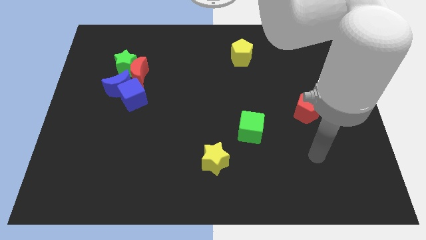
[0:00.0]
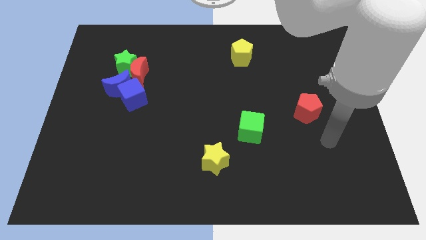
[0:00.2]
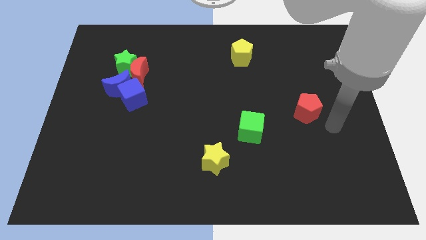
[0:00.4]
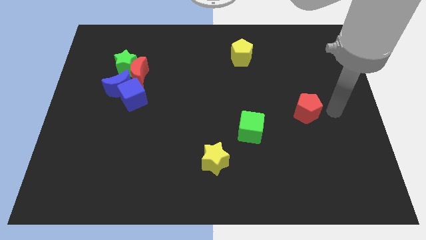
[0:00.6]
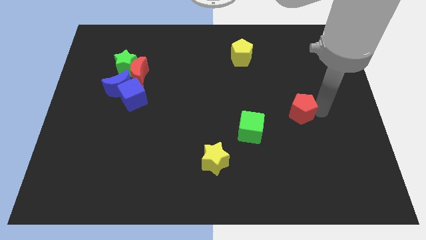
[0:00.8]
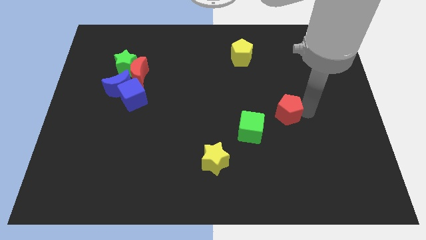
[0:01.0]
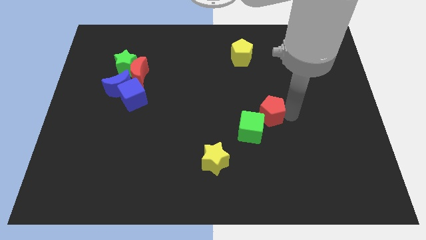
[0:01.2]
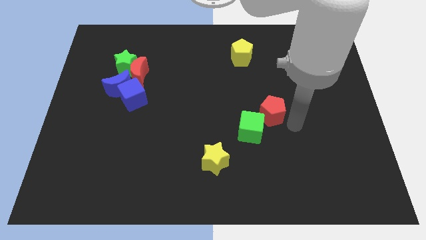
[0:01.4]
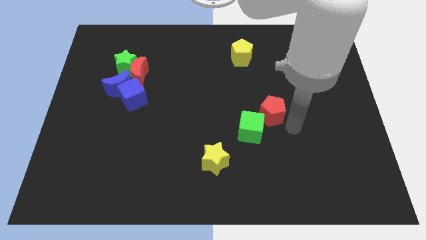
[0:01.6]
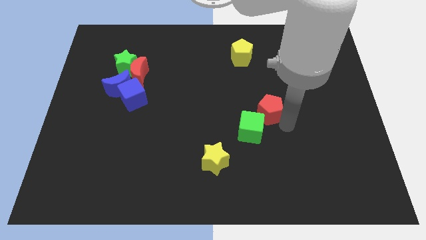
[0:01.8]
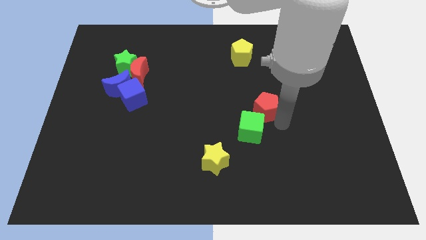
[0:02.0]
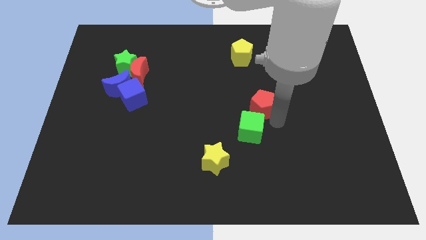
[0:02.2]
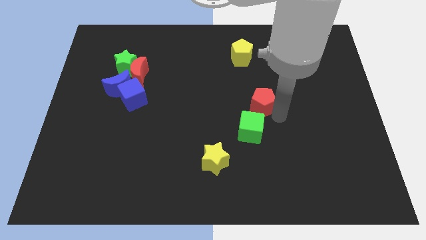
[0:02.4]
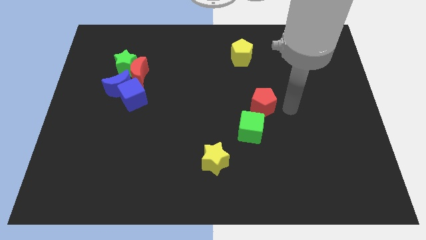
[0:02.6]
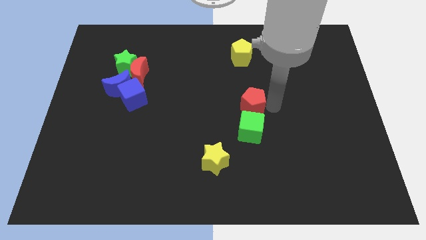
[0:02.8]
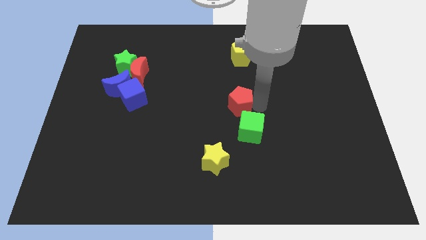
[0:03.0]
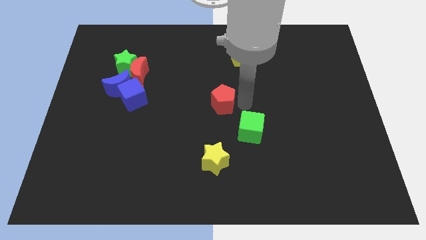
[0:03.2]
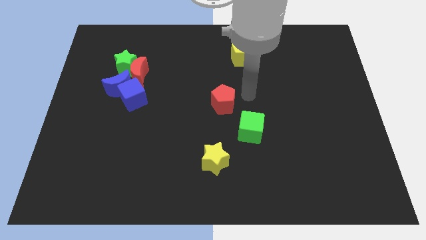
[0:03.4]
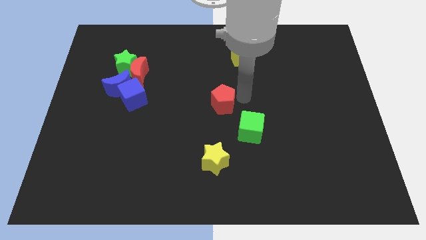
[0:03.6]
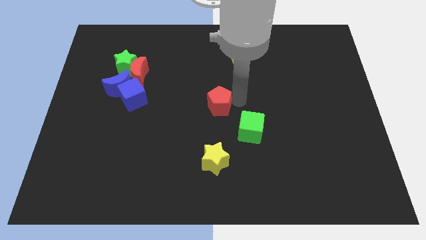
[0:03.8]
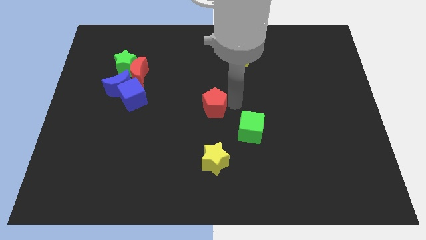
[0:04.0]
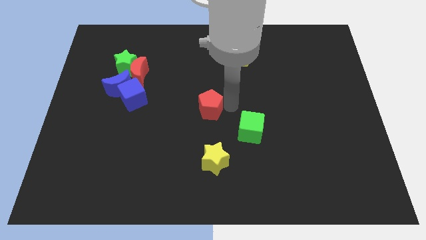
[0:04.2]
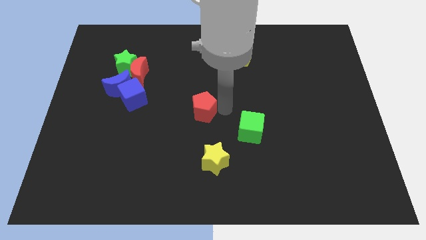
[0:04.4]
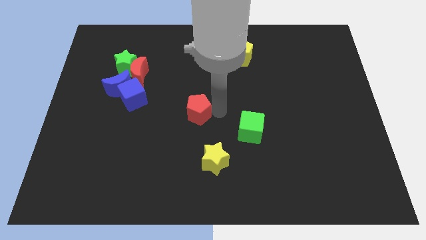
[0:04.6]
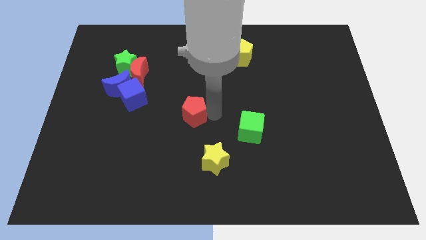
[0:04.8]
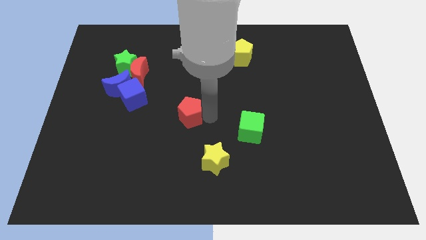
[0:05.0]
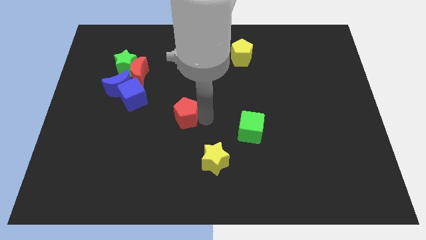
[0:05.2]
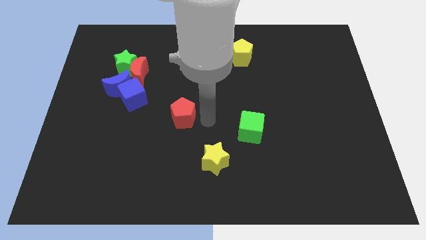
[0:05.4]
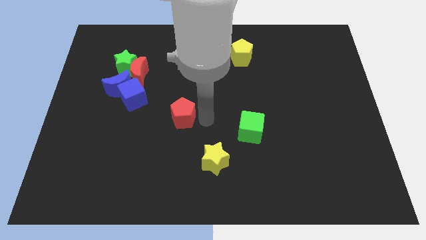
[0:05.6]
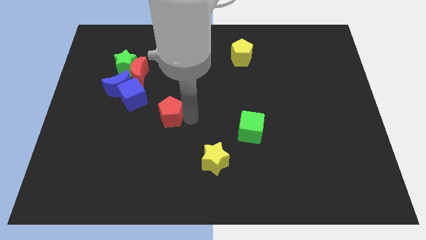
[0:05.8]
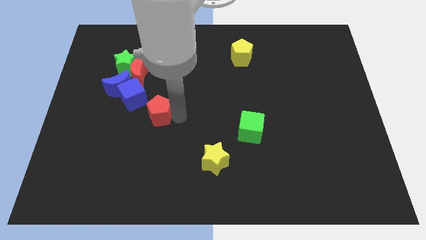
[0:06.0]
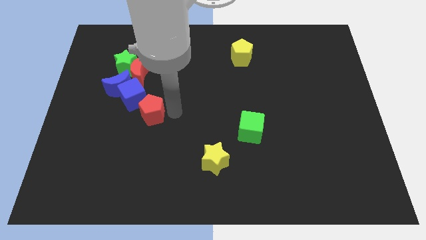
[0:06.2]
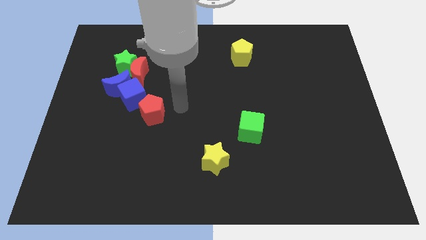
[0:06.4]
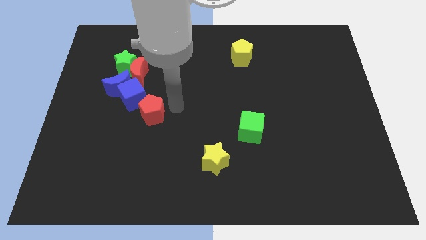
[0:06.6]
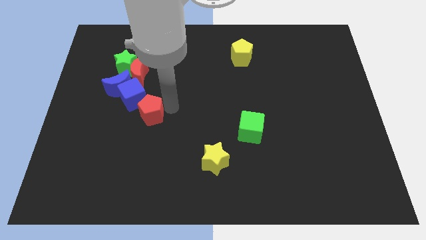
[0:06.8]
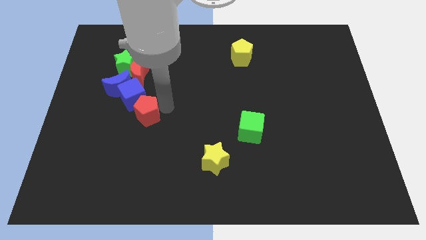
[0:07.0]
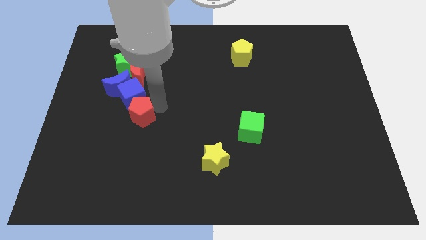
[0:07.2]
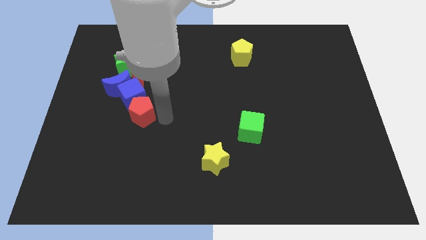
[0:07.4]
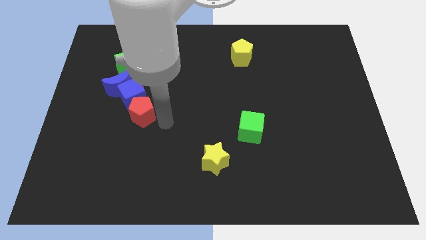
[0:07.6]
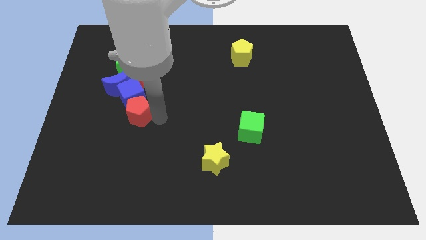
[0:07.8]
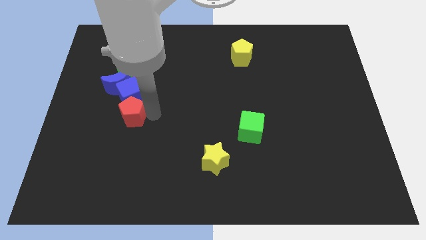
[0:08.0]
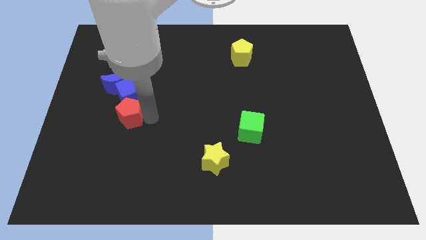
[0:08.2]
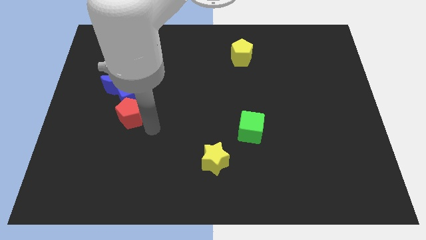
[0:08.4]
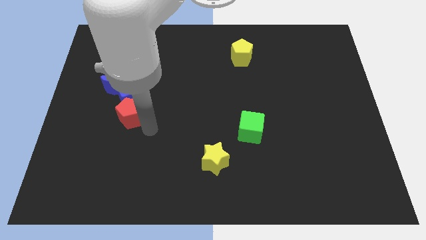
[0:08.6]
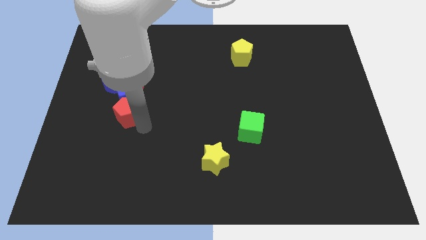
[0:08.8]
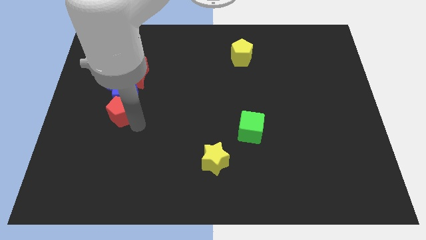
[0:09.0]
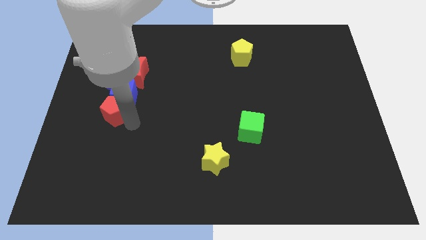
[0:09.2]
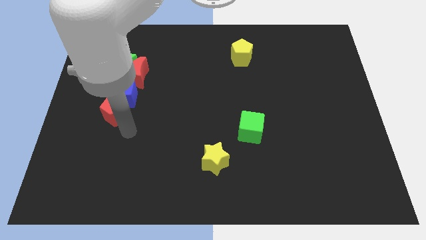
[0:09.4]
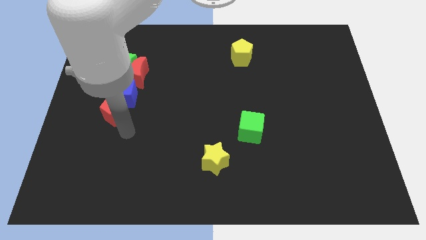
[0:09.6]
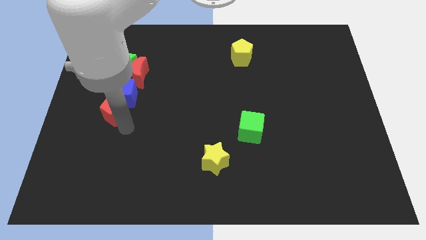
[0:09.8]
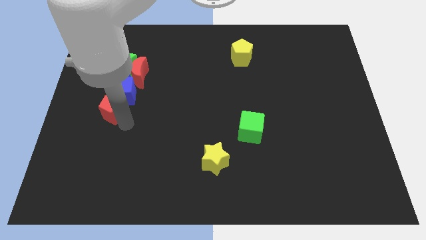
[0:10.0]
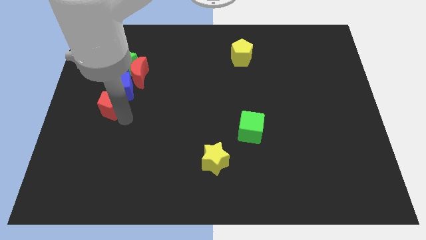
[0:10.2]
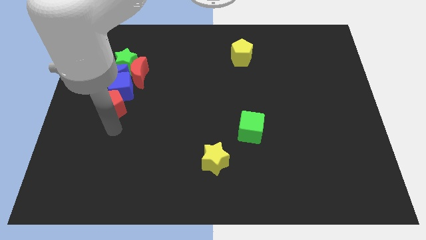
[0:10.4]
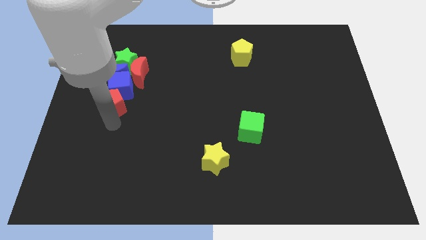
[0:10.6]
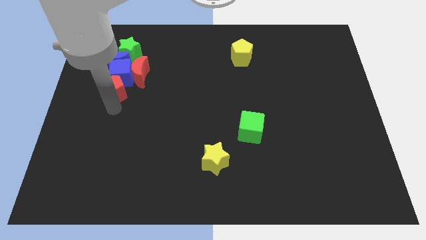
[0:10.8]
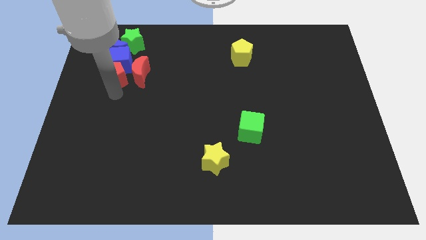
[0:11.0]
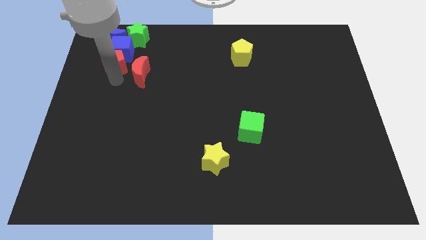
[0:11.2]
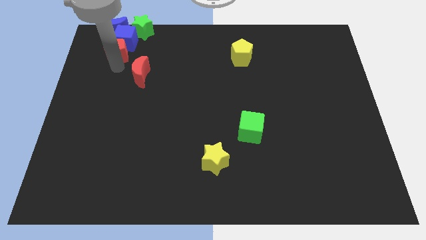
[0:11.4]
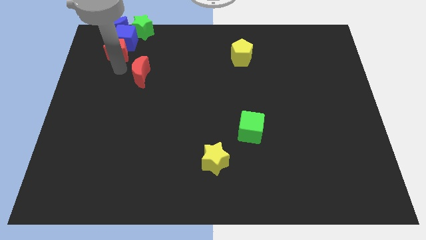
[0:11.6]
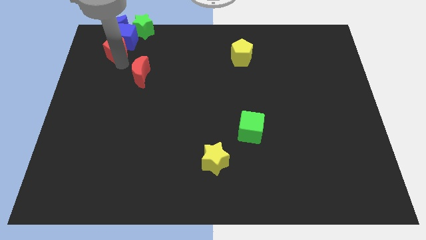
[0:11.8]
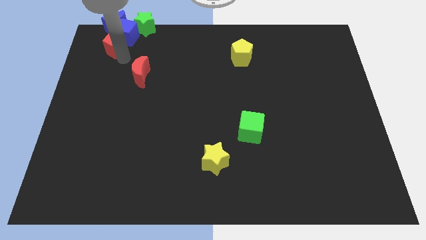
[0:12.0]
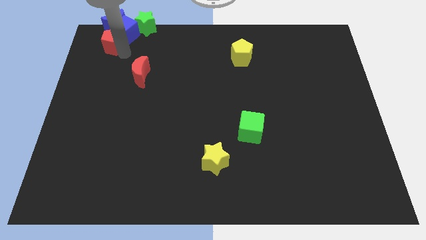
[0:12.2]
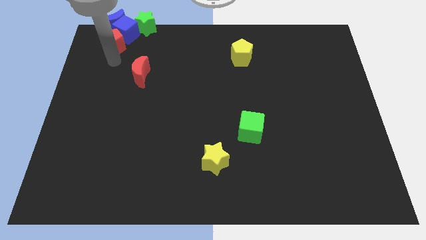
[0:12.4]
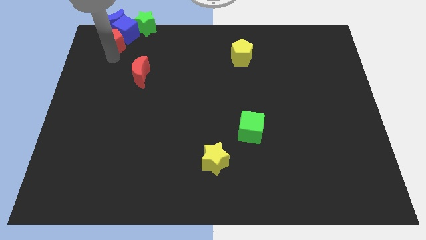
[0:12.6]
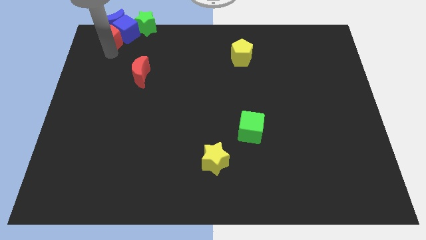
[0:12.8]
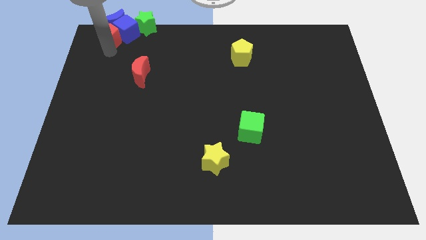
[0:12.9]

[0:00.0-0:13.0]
push the red pentagon close to the blue moon

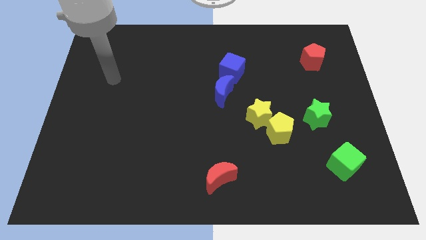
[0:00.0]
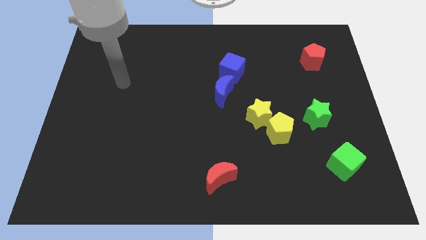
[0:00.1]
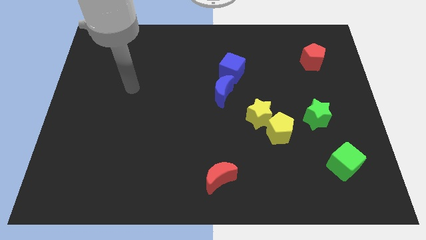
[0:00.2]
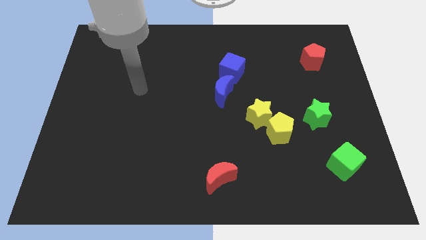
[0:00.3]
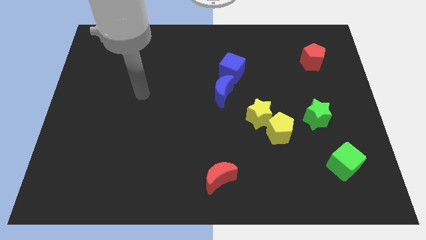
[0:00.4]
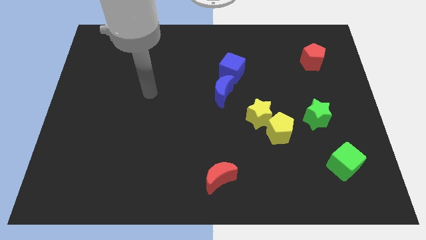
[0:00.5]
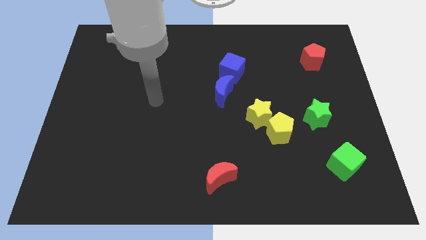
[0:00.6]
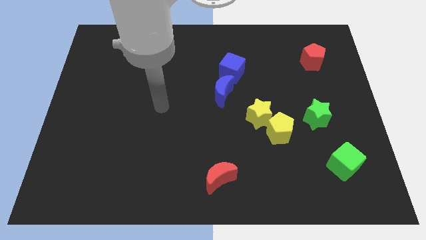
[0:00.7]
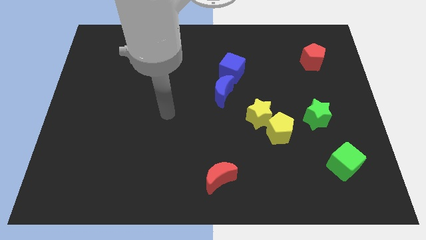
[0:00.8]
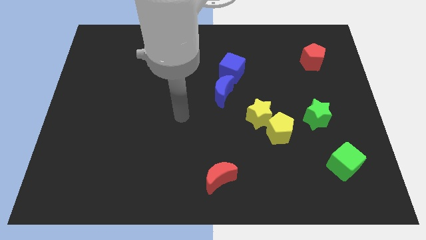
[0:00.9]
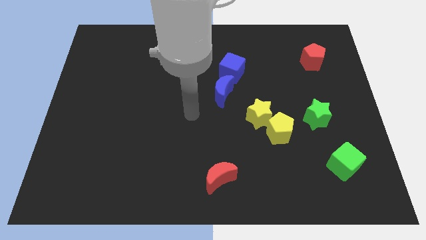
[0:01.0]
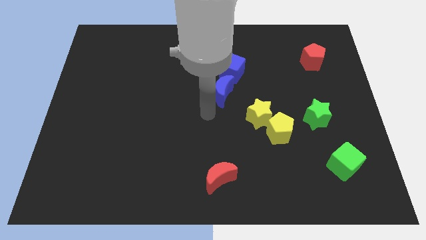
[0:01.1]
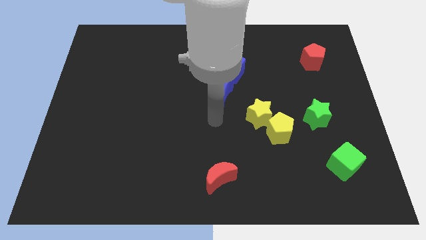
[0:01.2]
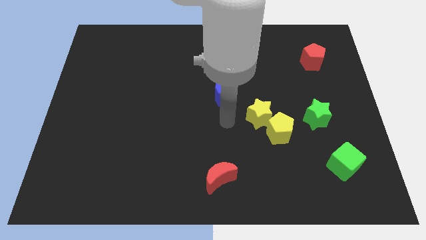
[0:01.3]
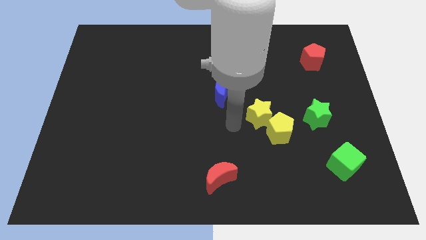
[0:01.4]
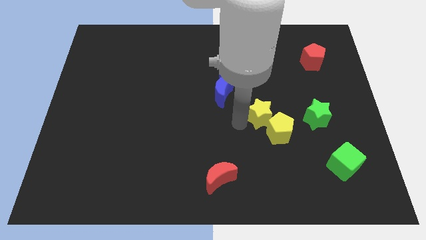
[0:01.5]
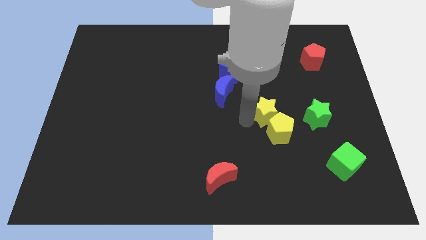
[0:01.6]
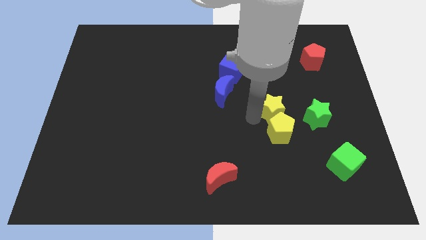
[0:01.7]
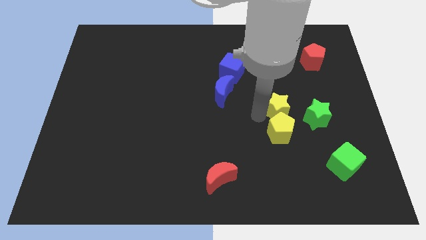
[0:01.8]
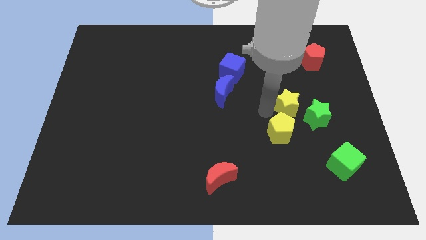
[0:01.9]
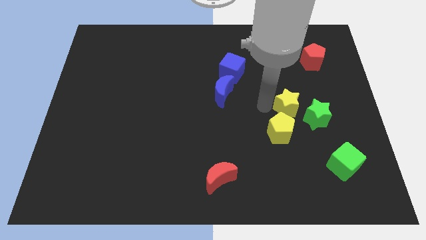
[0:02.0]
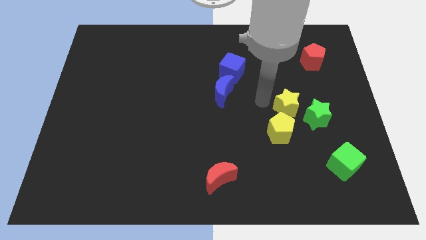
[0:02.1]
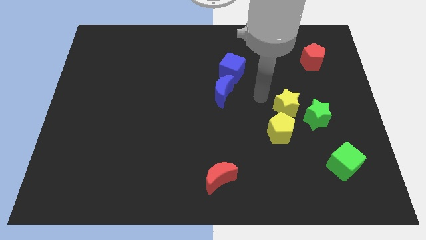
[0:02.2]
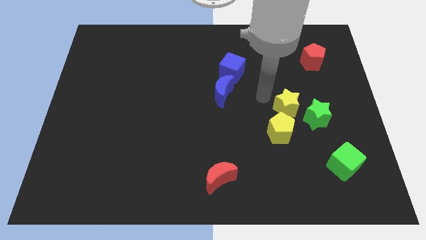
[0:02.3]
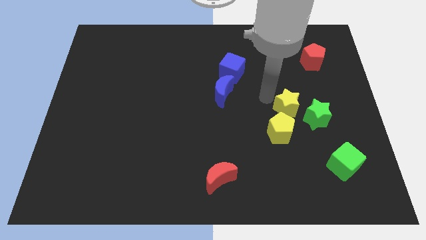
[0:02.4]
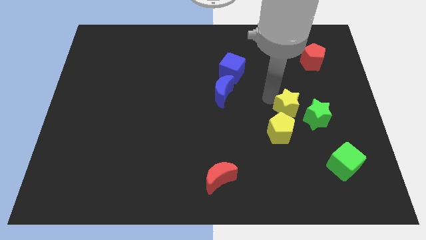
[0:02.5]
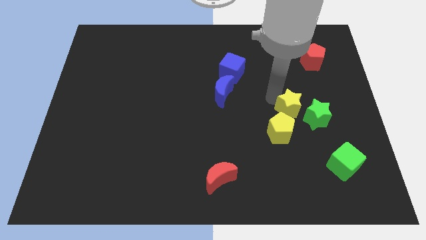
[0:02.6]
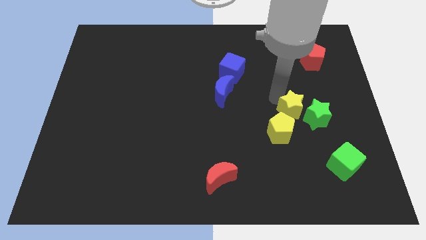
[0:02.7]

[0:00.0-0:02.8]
push the yellow star next to the green star
